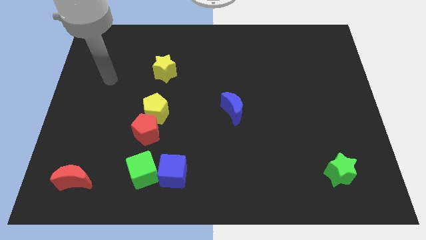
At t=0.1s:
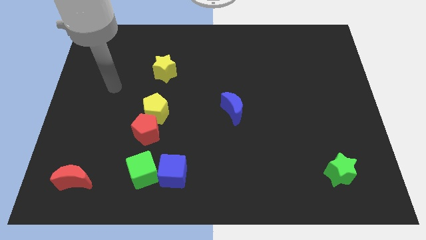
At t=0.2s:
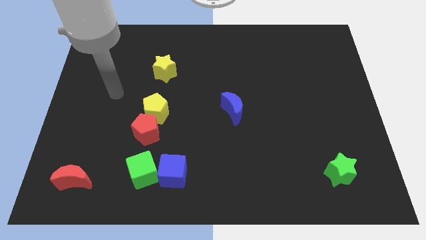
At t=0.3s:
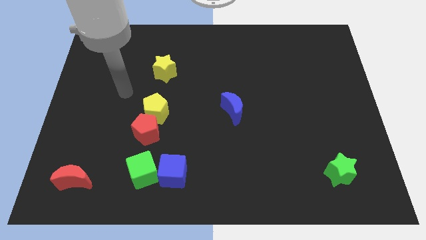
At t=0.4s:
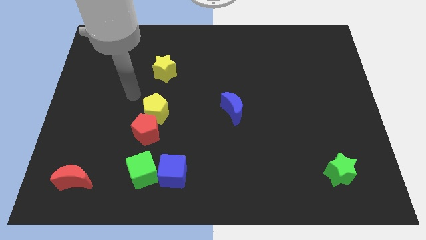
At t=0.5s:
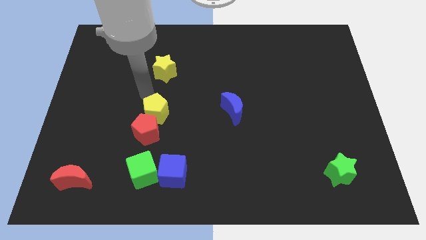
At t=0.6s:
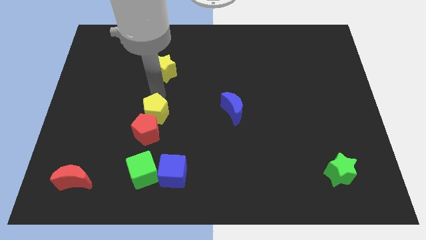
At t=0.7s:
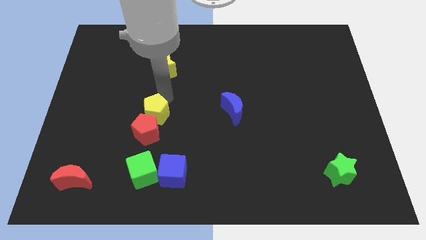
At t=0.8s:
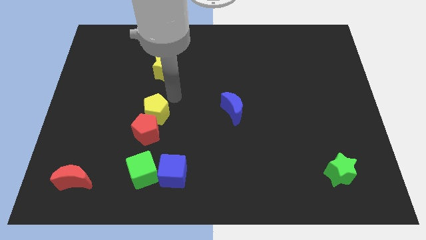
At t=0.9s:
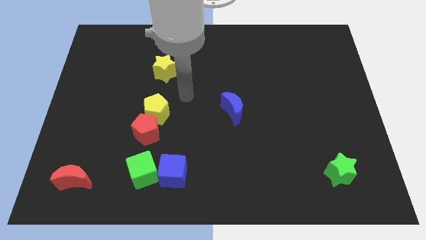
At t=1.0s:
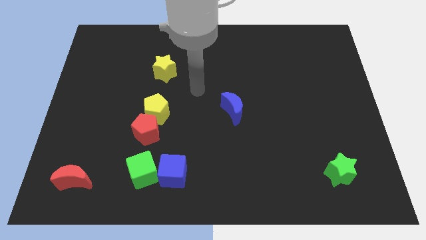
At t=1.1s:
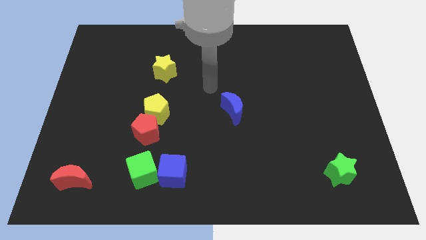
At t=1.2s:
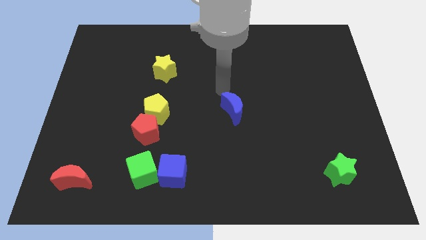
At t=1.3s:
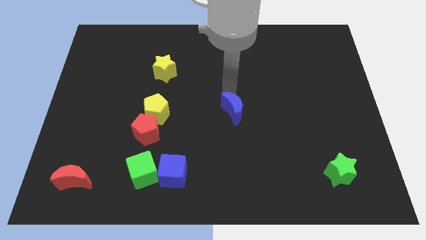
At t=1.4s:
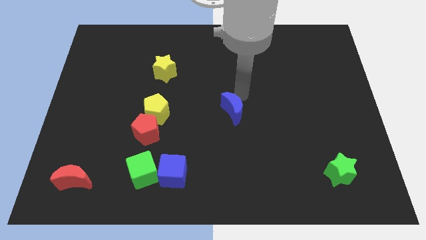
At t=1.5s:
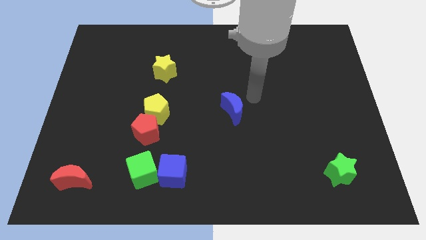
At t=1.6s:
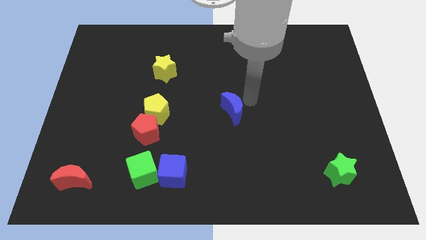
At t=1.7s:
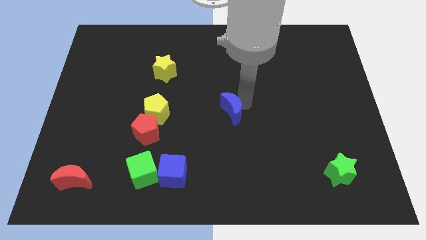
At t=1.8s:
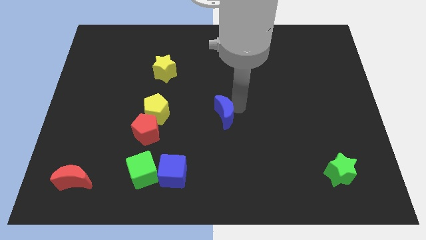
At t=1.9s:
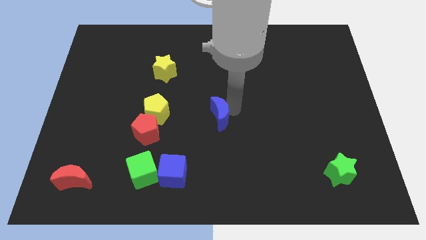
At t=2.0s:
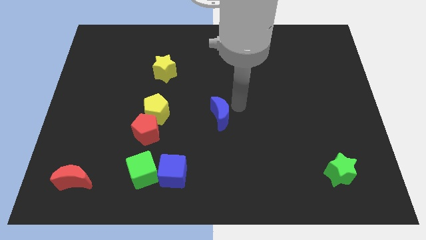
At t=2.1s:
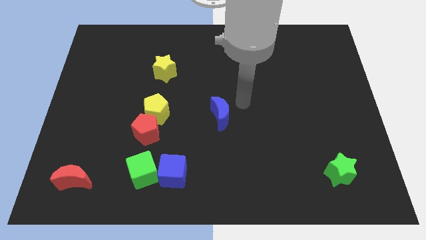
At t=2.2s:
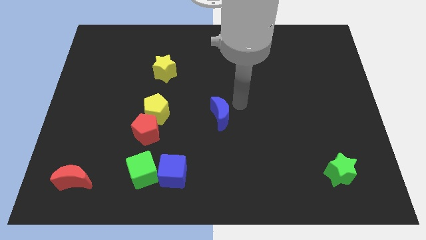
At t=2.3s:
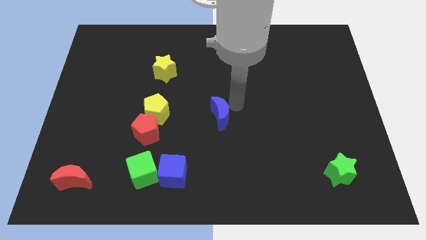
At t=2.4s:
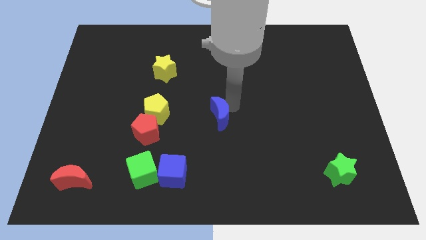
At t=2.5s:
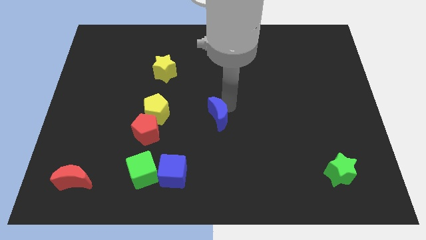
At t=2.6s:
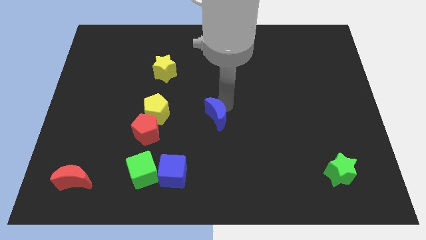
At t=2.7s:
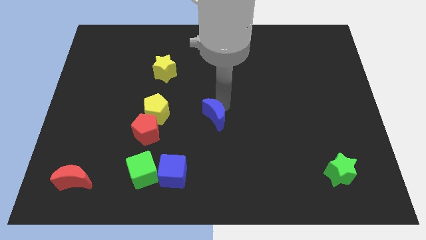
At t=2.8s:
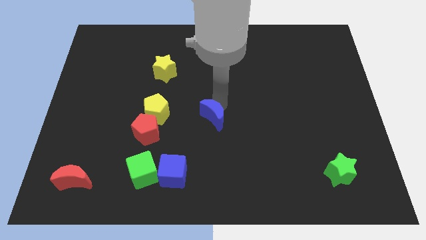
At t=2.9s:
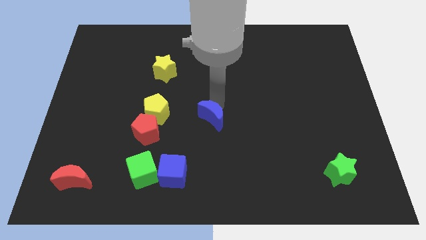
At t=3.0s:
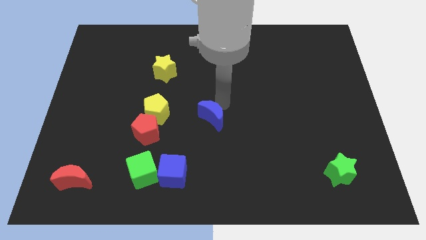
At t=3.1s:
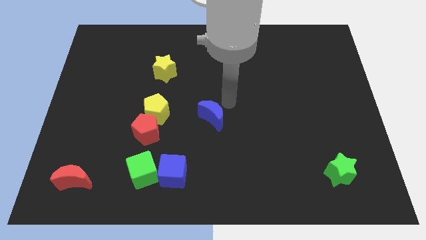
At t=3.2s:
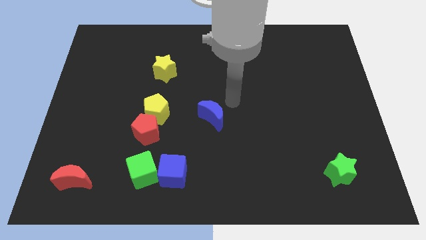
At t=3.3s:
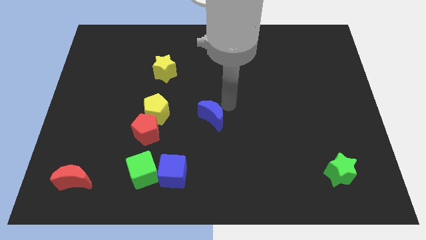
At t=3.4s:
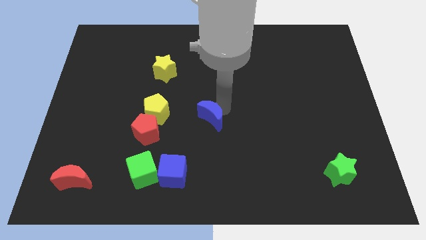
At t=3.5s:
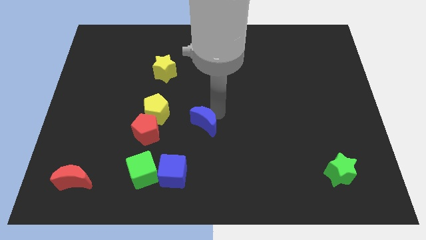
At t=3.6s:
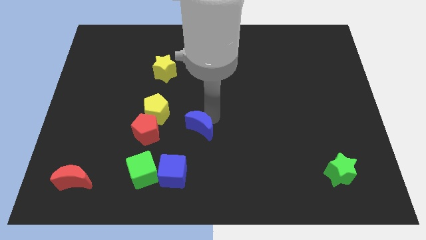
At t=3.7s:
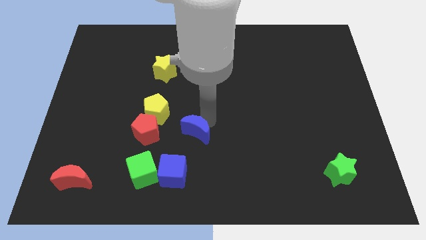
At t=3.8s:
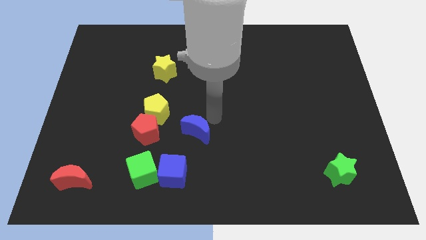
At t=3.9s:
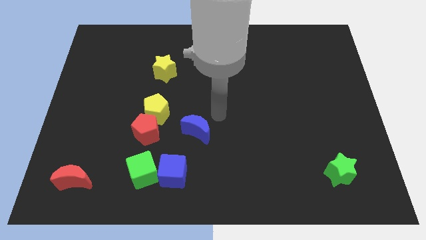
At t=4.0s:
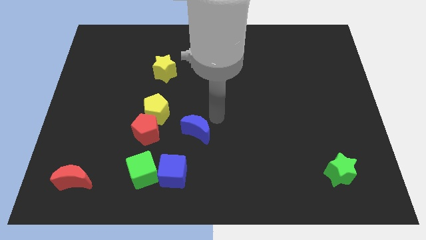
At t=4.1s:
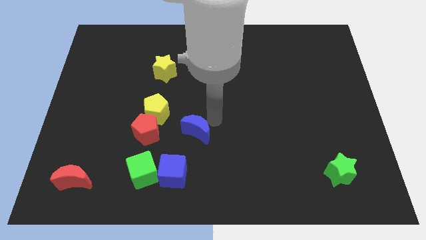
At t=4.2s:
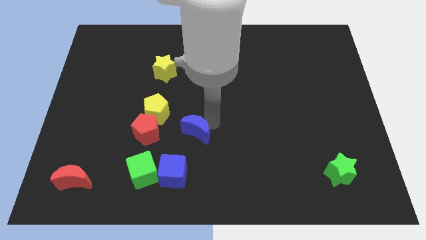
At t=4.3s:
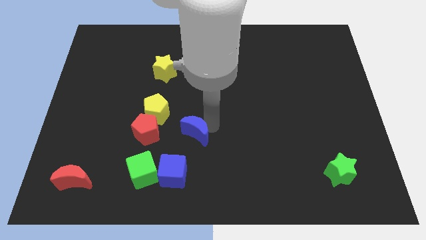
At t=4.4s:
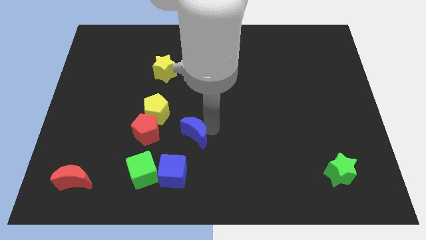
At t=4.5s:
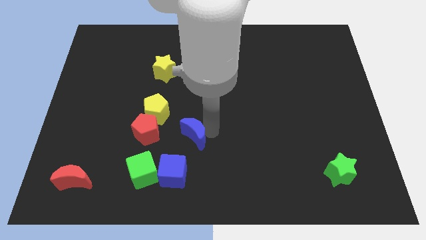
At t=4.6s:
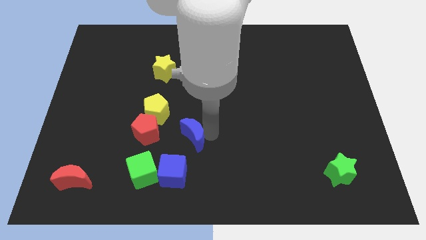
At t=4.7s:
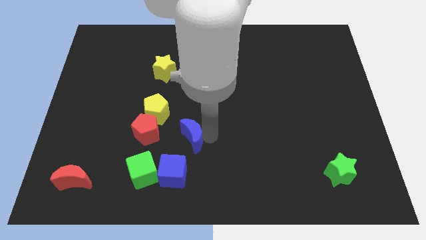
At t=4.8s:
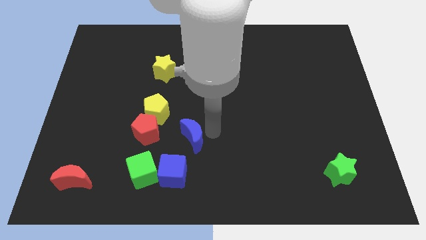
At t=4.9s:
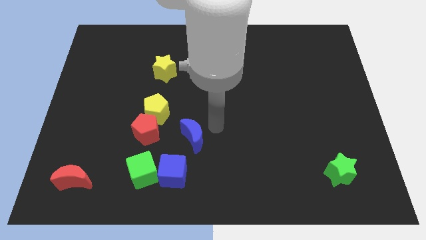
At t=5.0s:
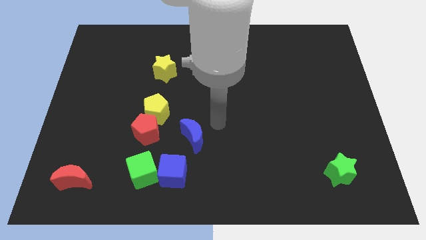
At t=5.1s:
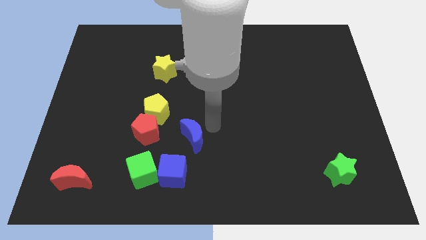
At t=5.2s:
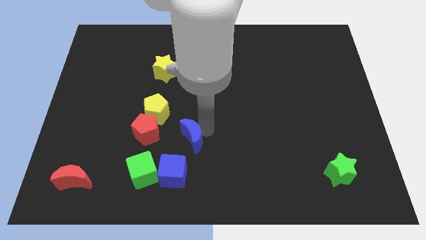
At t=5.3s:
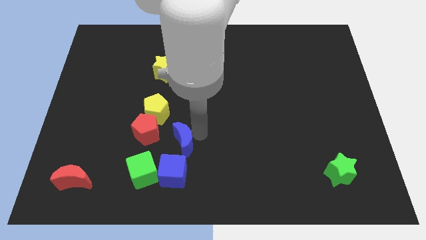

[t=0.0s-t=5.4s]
put the blue moon diagonally down and to the right of the red pentagon

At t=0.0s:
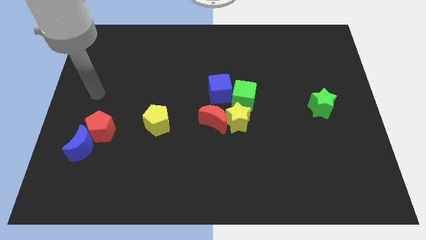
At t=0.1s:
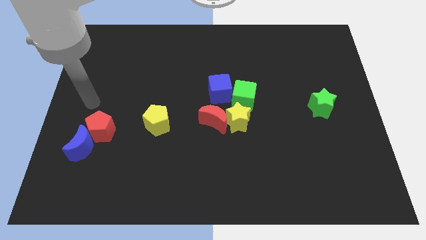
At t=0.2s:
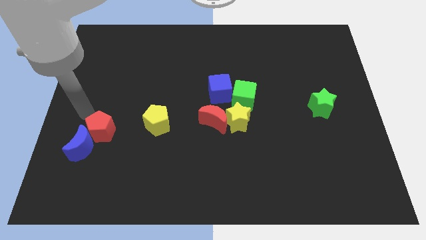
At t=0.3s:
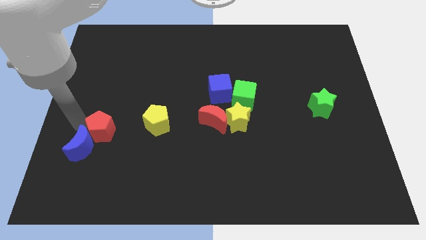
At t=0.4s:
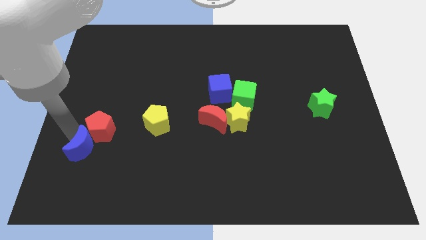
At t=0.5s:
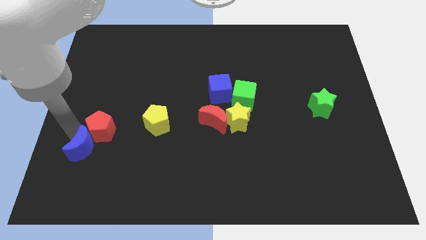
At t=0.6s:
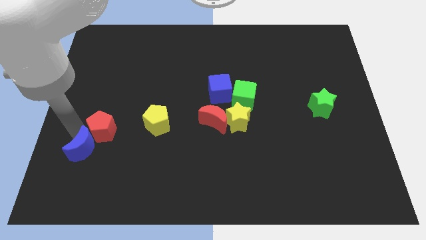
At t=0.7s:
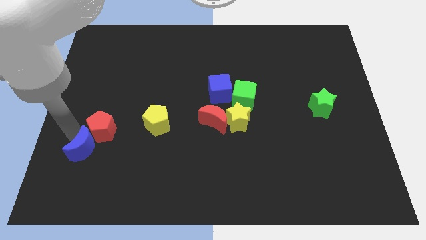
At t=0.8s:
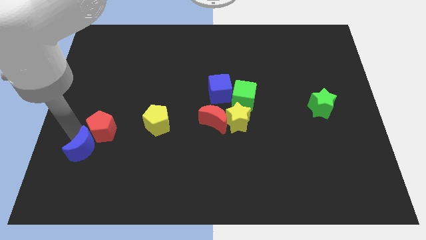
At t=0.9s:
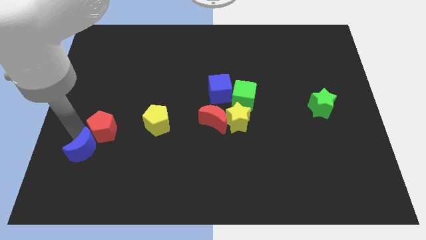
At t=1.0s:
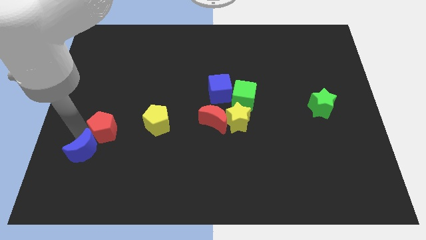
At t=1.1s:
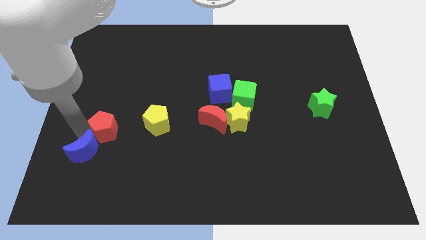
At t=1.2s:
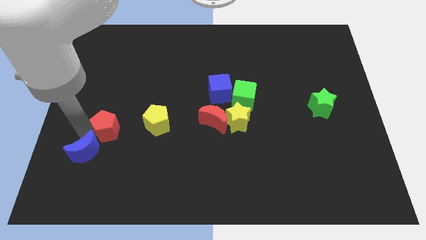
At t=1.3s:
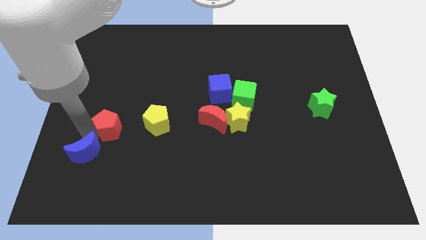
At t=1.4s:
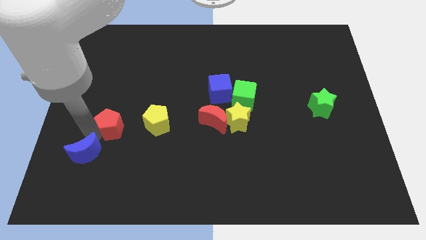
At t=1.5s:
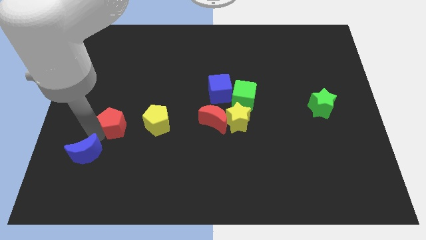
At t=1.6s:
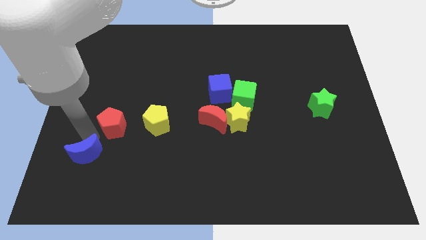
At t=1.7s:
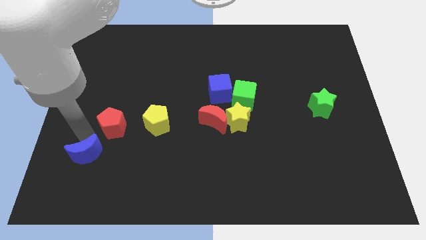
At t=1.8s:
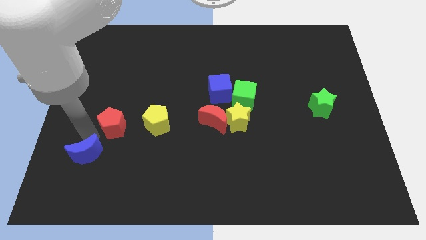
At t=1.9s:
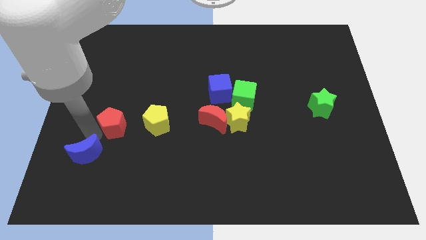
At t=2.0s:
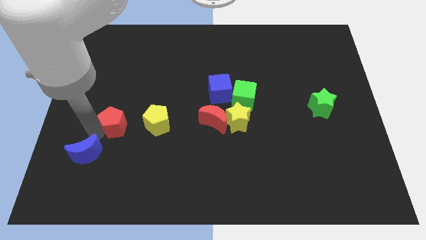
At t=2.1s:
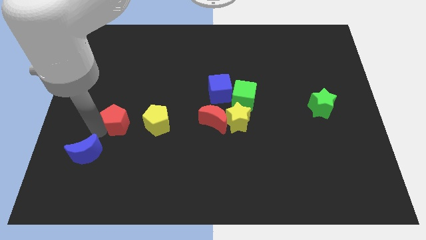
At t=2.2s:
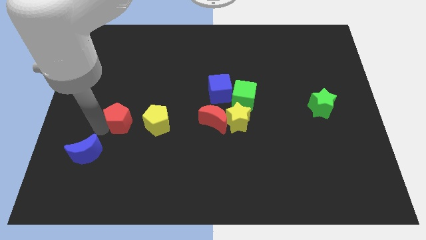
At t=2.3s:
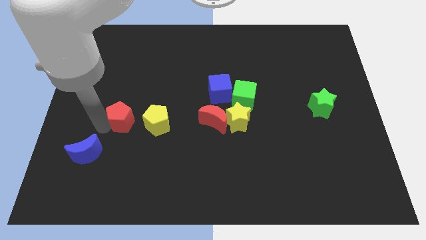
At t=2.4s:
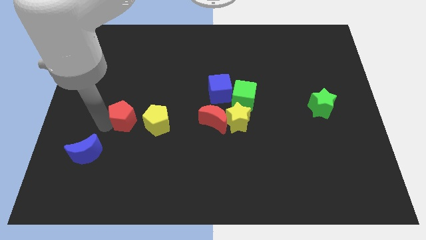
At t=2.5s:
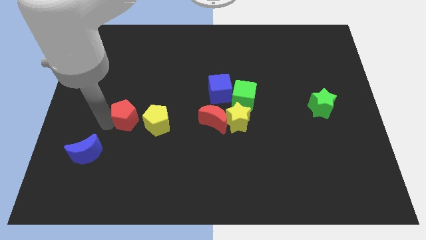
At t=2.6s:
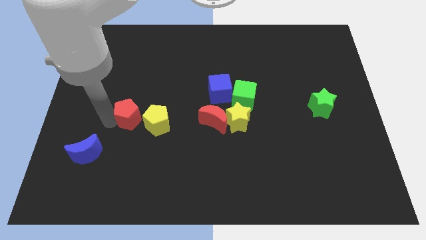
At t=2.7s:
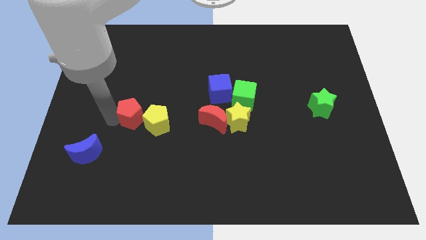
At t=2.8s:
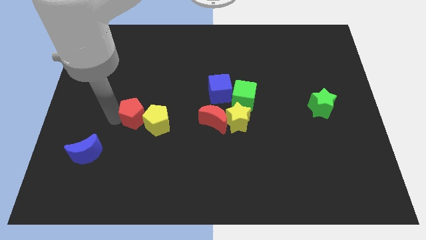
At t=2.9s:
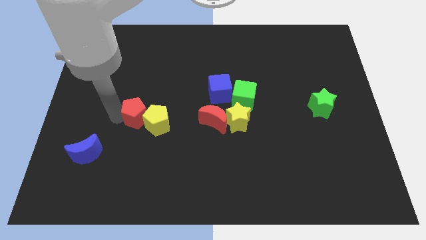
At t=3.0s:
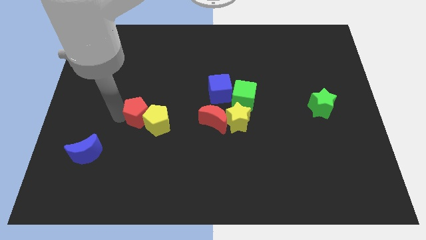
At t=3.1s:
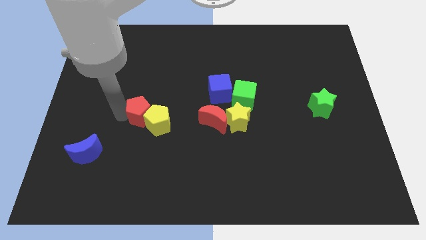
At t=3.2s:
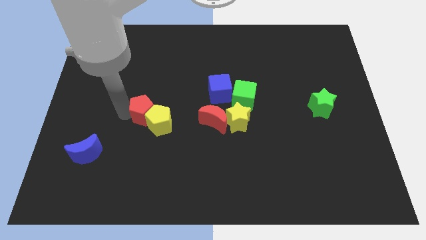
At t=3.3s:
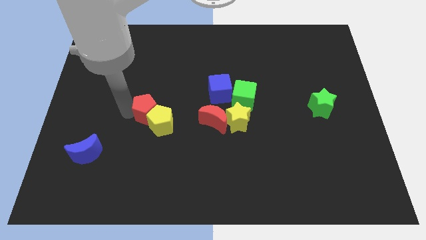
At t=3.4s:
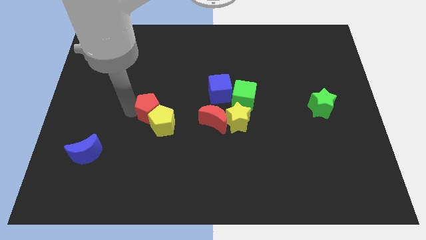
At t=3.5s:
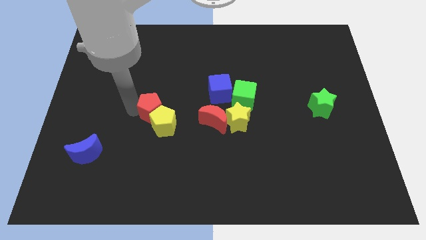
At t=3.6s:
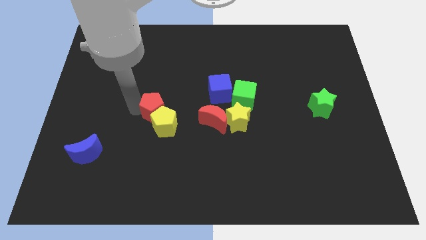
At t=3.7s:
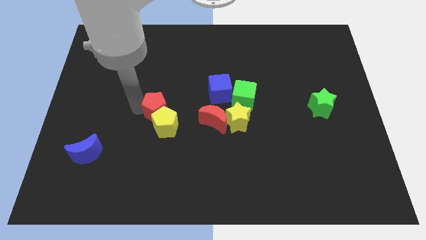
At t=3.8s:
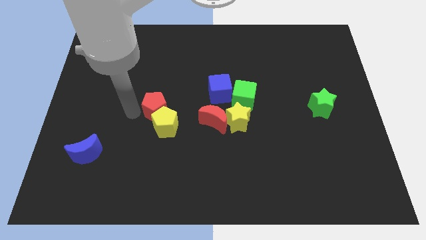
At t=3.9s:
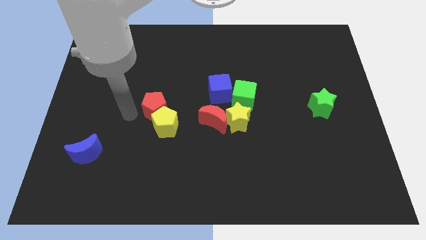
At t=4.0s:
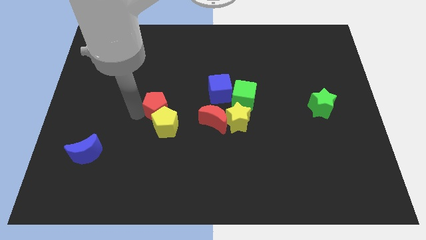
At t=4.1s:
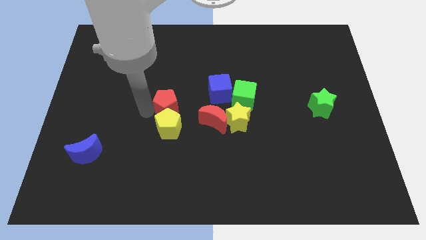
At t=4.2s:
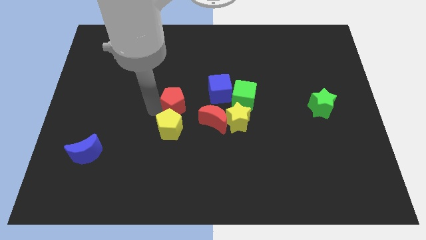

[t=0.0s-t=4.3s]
move the red pentagon to the top left side of the red moon
